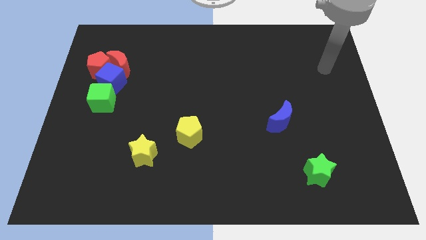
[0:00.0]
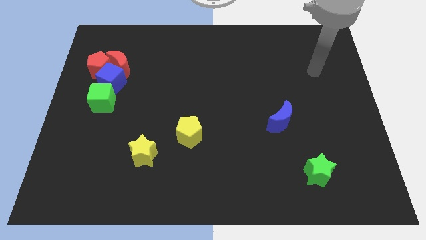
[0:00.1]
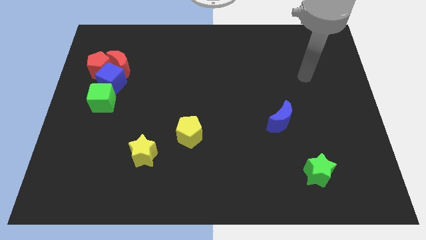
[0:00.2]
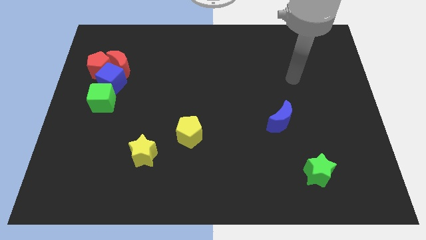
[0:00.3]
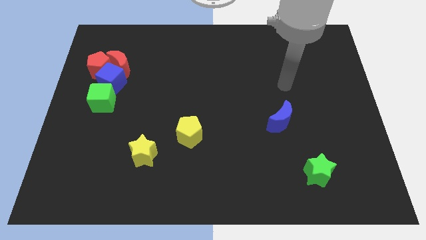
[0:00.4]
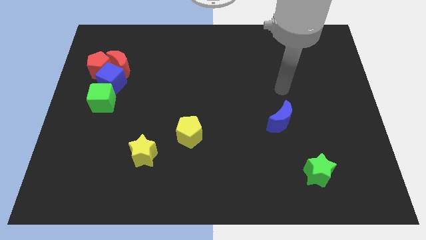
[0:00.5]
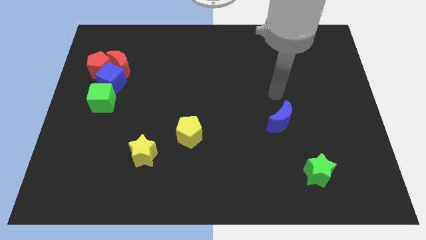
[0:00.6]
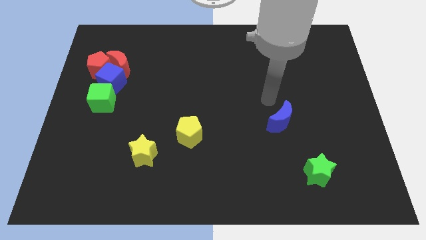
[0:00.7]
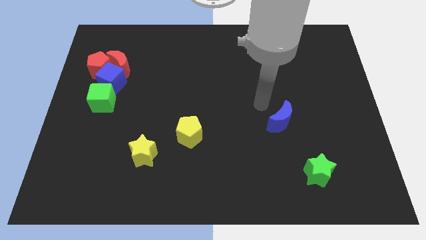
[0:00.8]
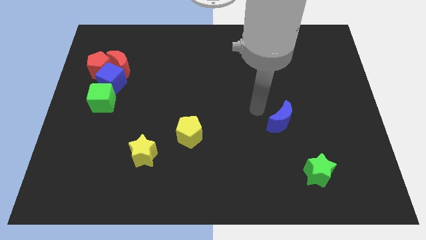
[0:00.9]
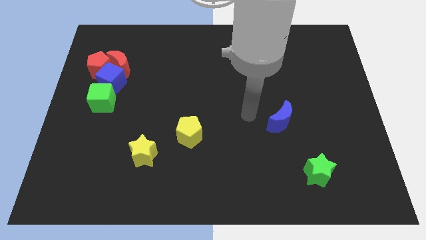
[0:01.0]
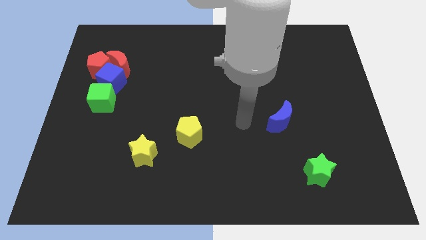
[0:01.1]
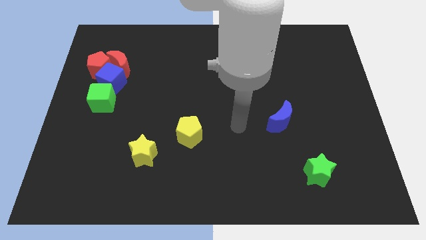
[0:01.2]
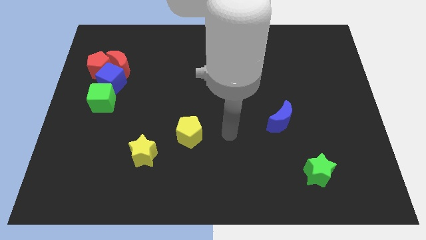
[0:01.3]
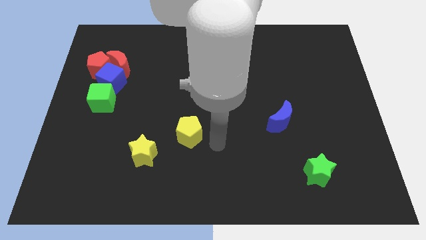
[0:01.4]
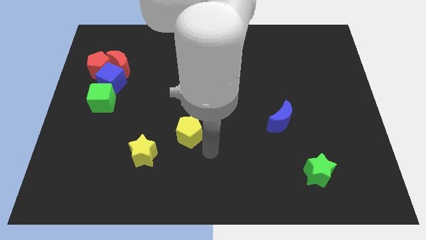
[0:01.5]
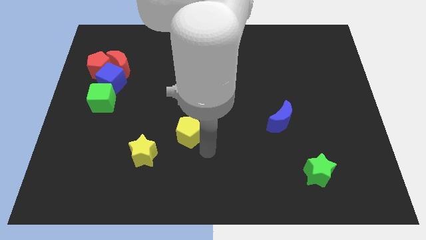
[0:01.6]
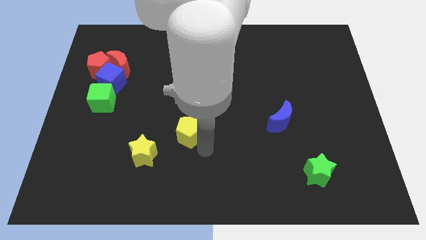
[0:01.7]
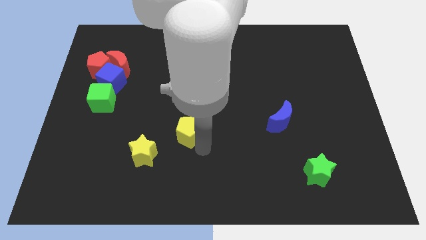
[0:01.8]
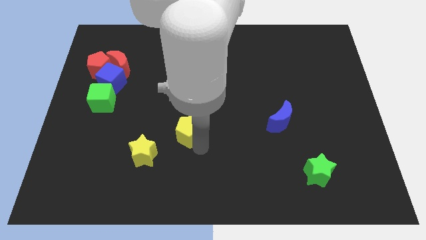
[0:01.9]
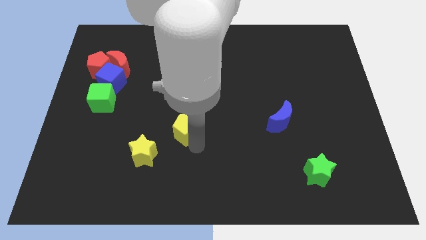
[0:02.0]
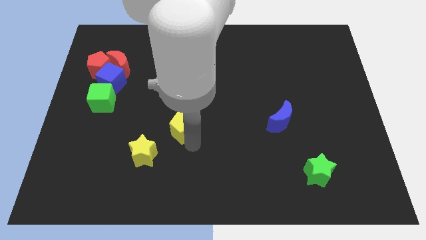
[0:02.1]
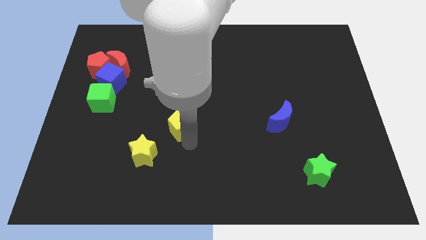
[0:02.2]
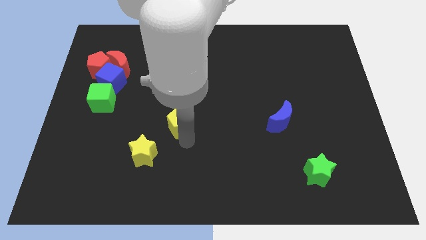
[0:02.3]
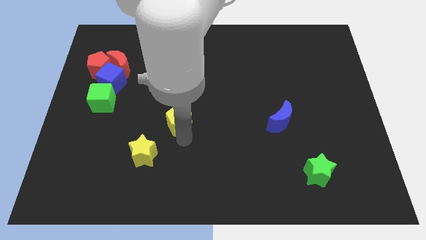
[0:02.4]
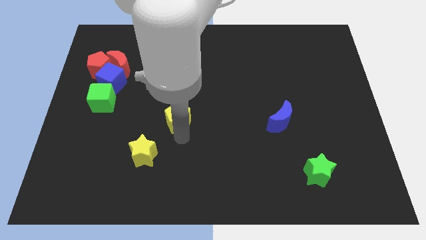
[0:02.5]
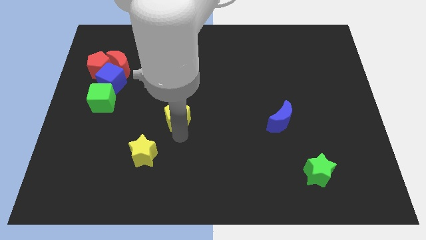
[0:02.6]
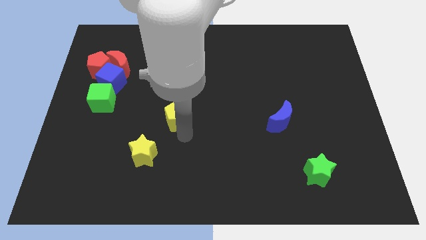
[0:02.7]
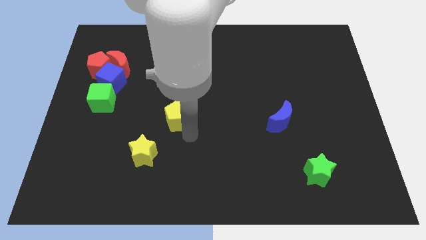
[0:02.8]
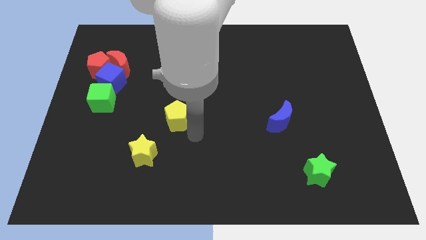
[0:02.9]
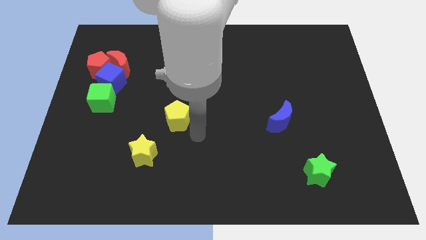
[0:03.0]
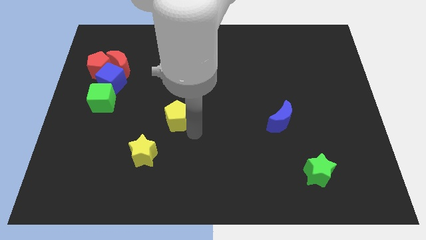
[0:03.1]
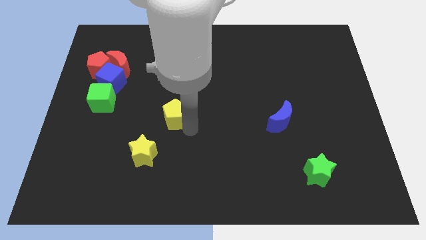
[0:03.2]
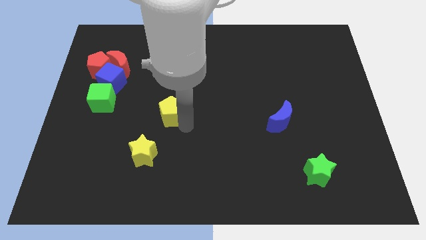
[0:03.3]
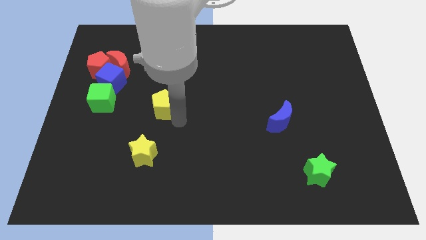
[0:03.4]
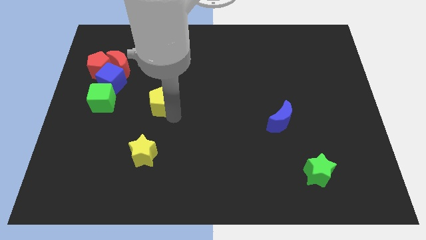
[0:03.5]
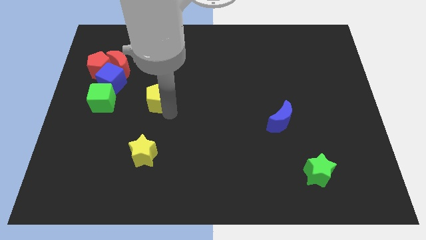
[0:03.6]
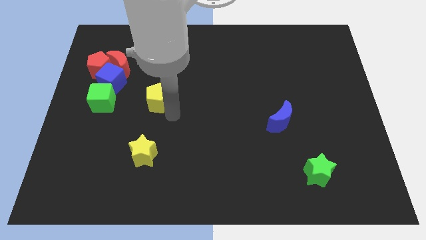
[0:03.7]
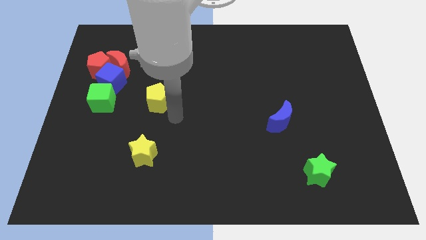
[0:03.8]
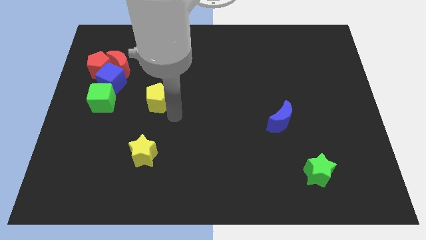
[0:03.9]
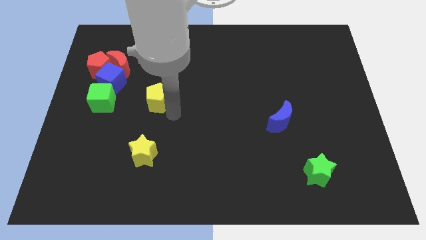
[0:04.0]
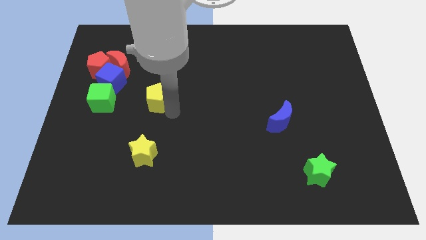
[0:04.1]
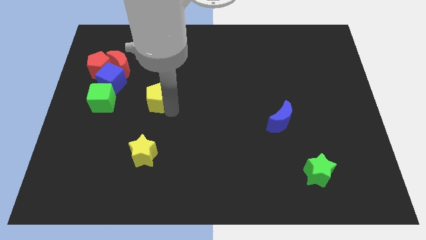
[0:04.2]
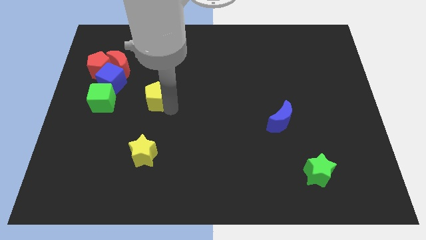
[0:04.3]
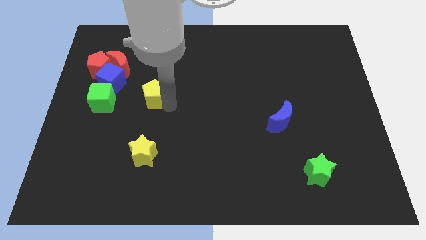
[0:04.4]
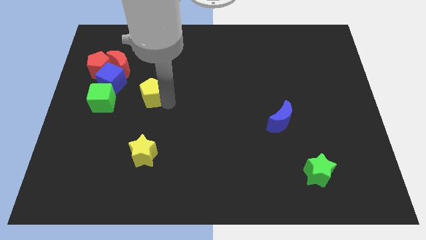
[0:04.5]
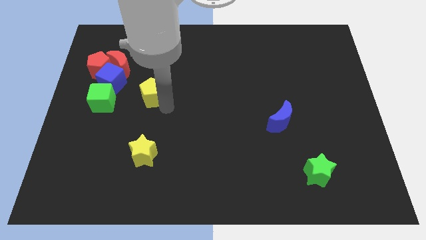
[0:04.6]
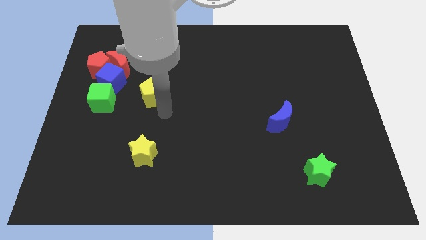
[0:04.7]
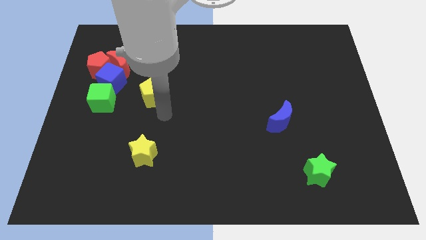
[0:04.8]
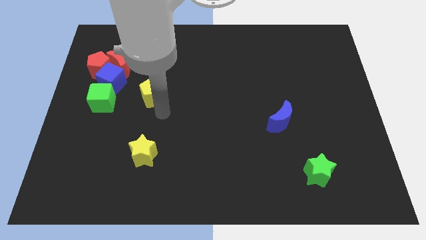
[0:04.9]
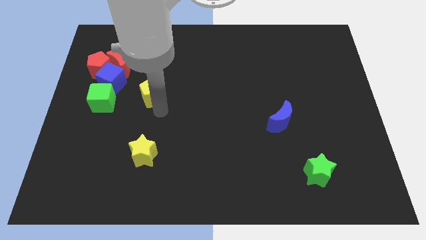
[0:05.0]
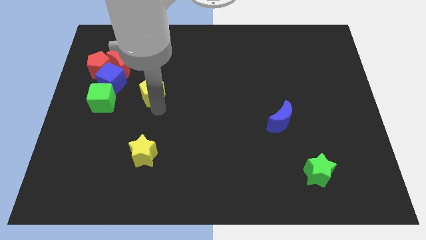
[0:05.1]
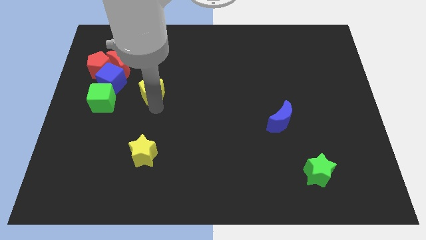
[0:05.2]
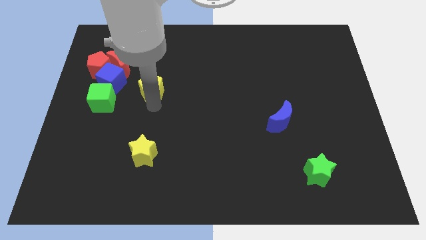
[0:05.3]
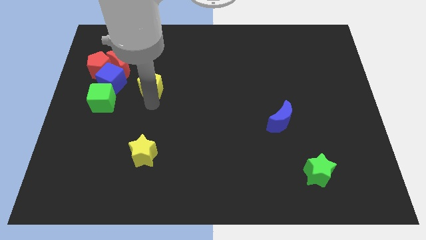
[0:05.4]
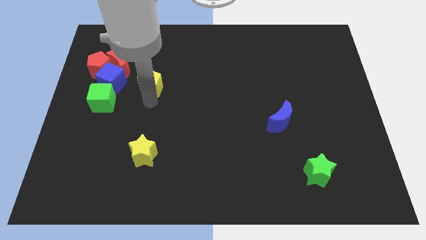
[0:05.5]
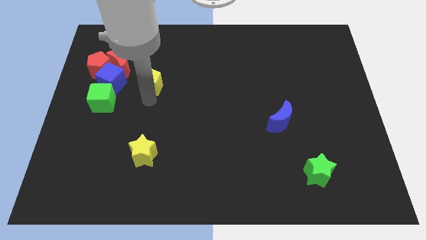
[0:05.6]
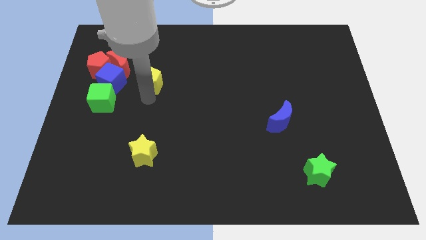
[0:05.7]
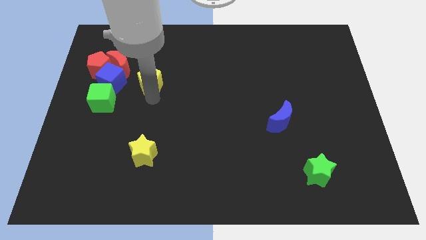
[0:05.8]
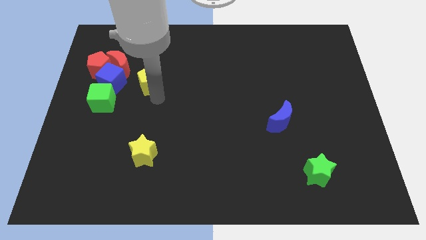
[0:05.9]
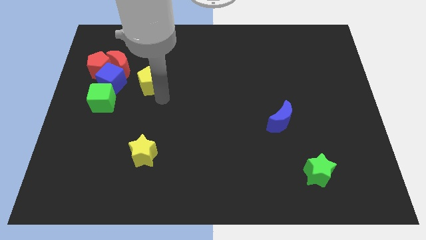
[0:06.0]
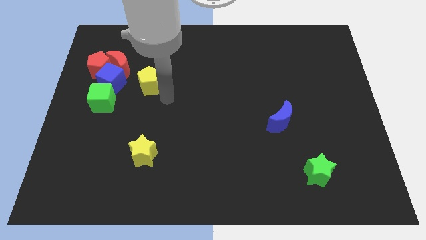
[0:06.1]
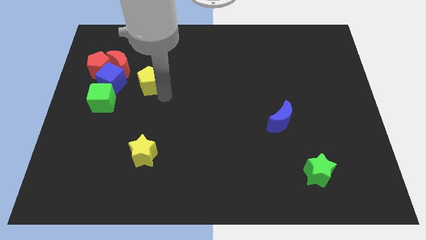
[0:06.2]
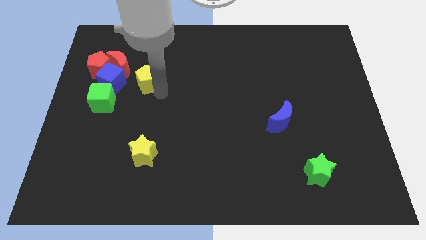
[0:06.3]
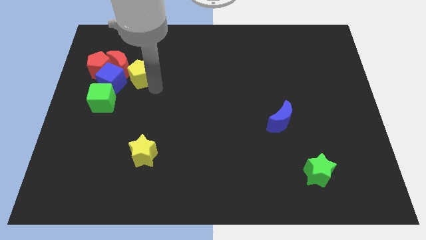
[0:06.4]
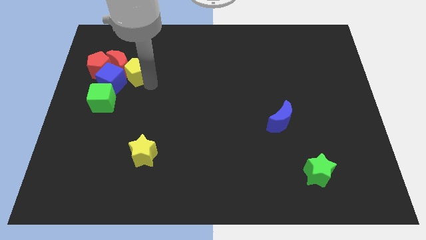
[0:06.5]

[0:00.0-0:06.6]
put the yellow pentagon next to the red moon

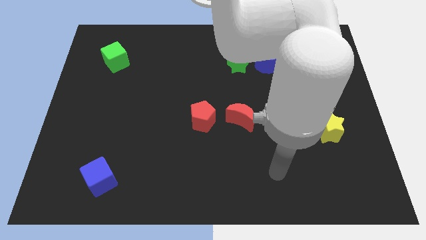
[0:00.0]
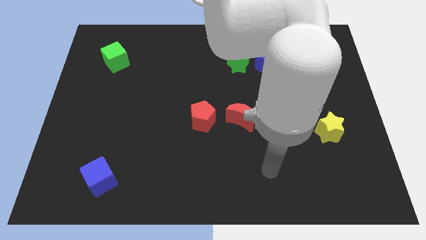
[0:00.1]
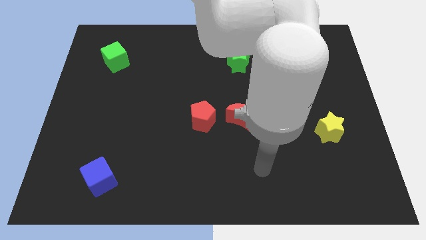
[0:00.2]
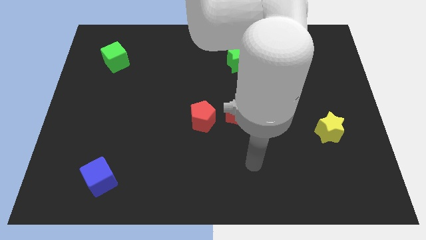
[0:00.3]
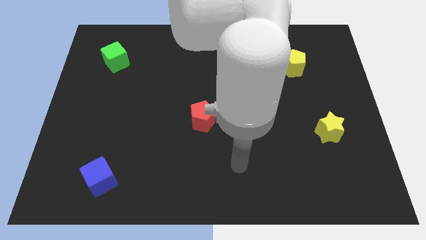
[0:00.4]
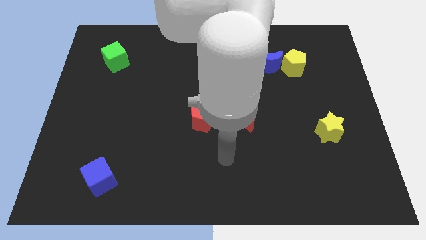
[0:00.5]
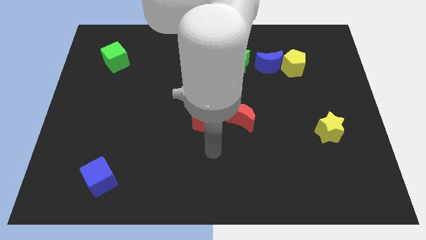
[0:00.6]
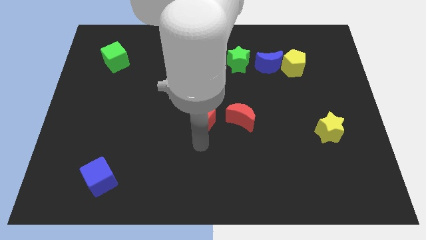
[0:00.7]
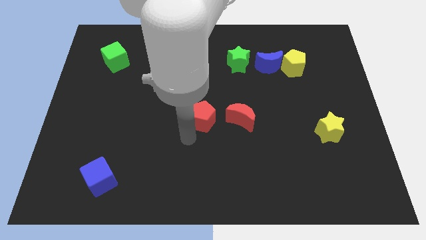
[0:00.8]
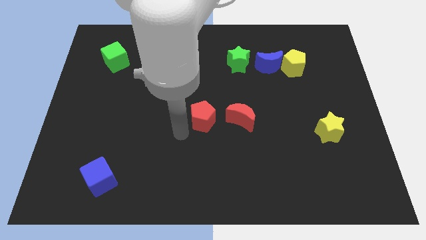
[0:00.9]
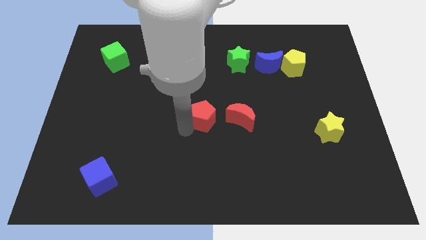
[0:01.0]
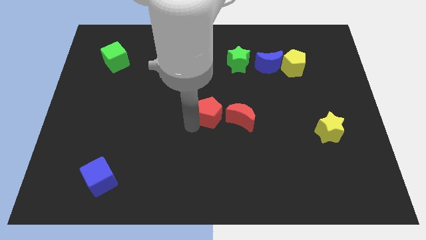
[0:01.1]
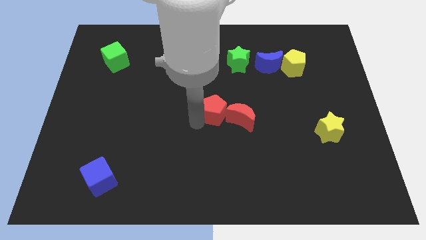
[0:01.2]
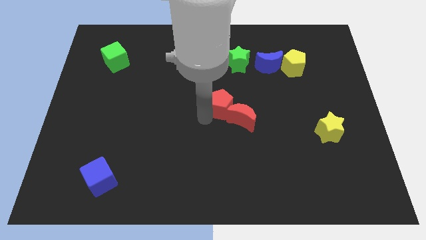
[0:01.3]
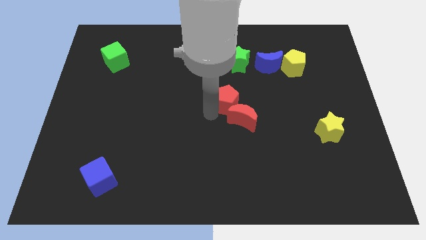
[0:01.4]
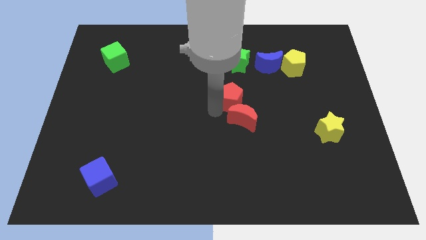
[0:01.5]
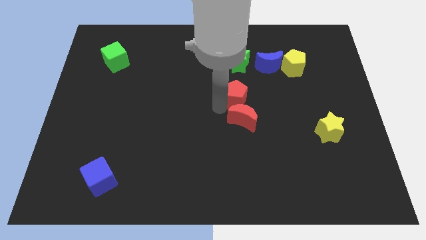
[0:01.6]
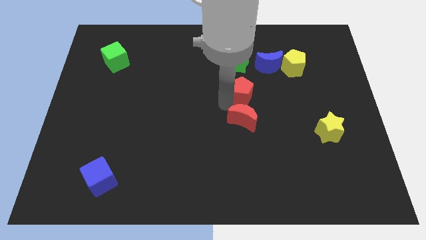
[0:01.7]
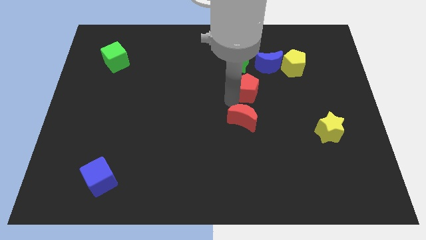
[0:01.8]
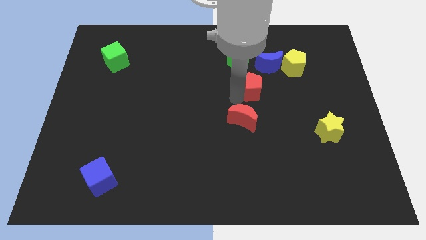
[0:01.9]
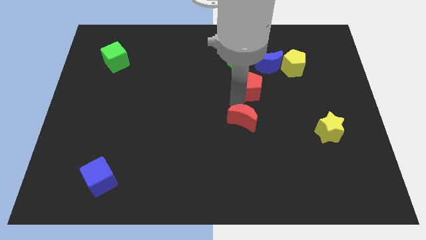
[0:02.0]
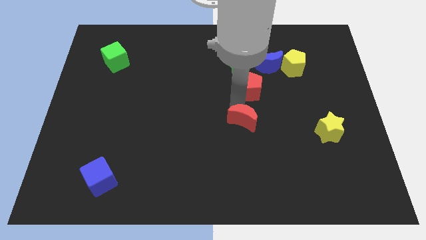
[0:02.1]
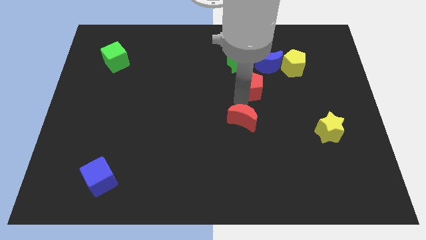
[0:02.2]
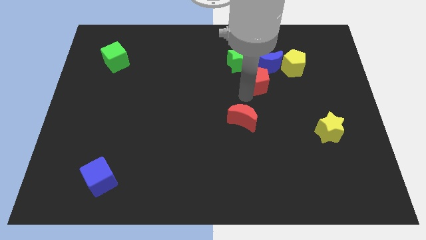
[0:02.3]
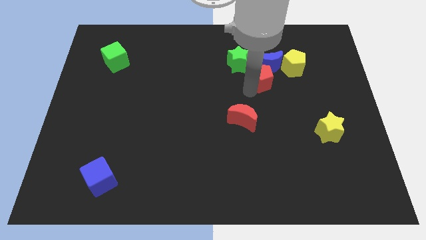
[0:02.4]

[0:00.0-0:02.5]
push the red pentagon to the blue moon
